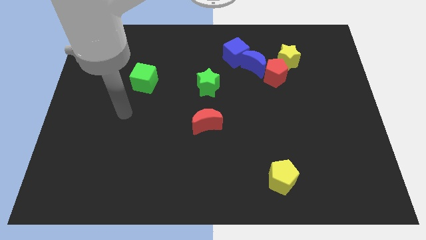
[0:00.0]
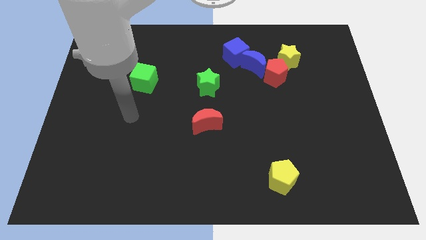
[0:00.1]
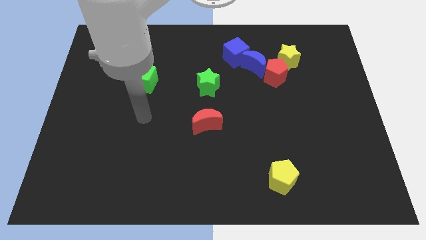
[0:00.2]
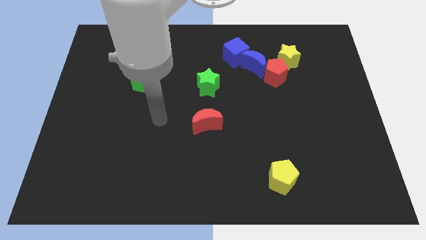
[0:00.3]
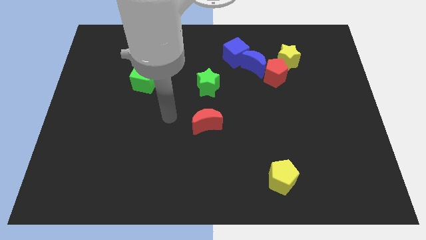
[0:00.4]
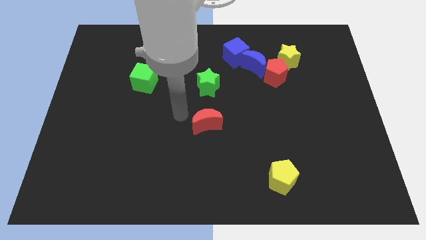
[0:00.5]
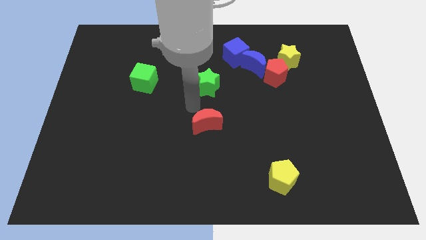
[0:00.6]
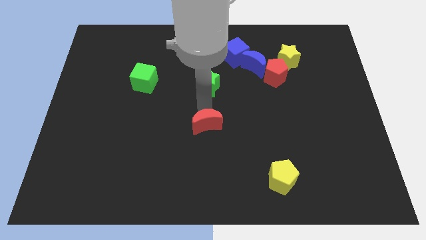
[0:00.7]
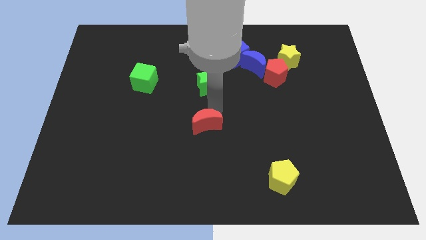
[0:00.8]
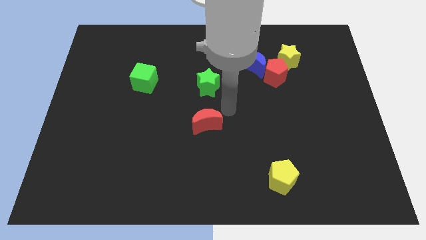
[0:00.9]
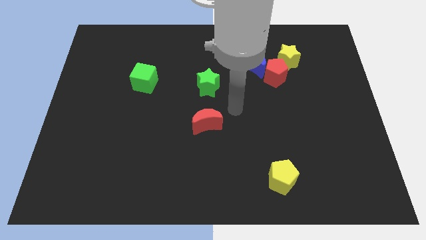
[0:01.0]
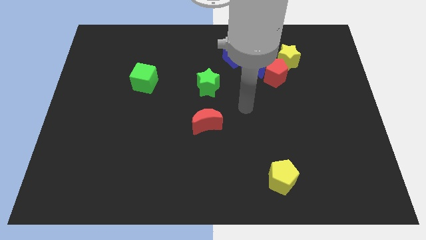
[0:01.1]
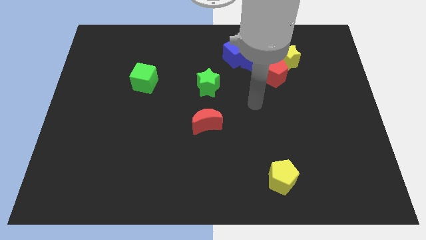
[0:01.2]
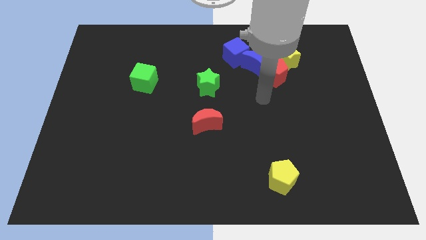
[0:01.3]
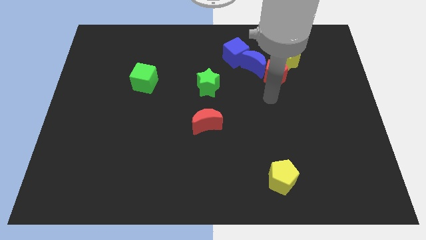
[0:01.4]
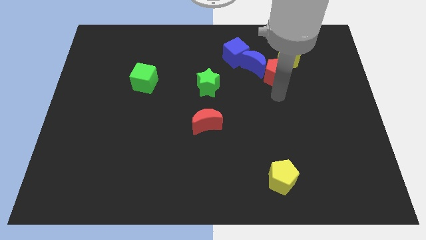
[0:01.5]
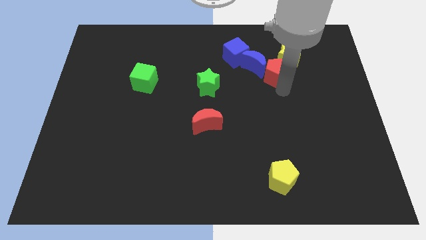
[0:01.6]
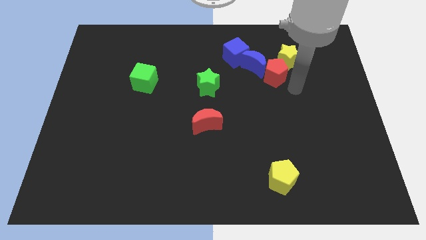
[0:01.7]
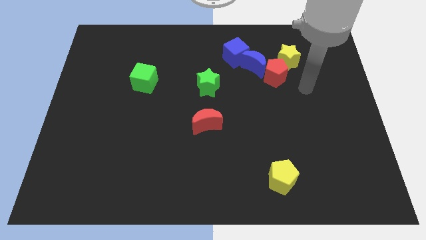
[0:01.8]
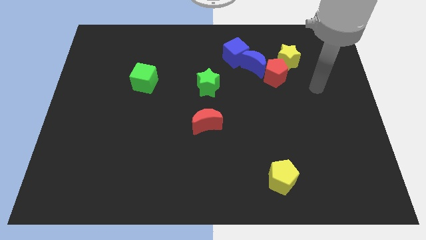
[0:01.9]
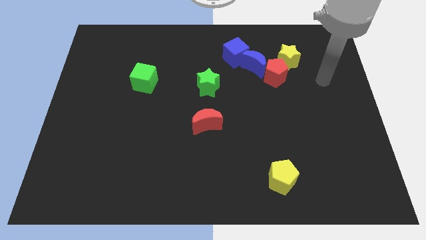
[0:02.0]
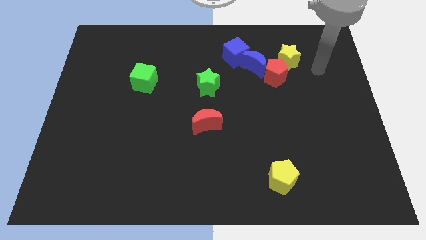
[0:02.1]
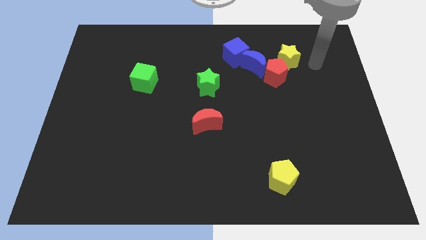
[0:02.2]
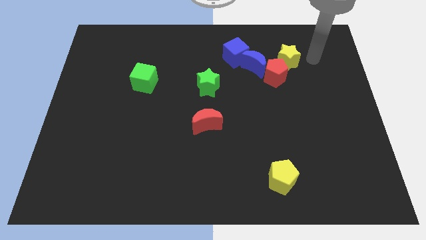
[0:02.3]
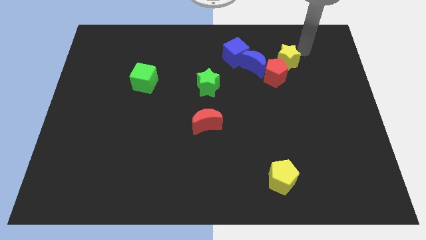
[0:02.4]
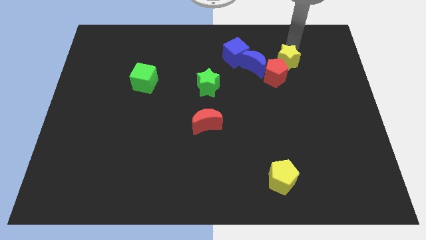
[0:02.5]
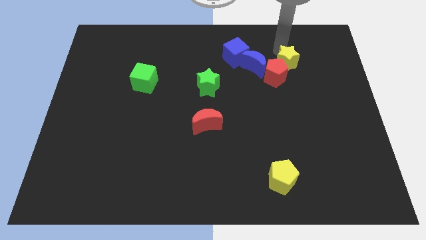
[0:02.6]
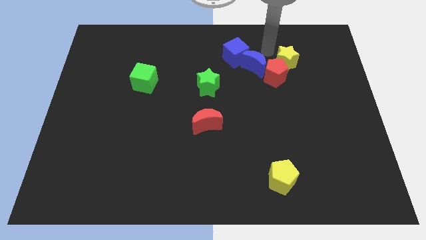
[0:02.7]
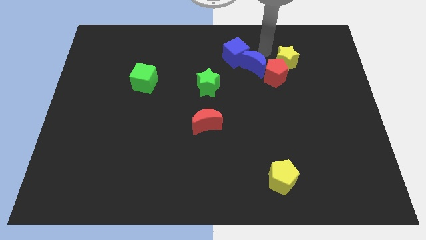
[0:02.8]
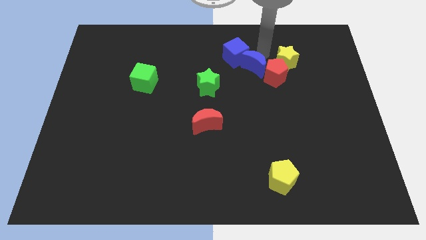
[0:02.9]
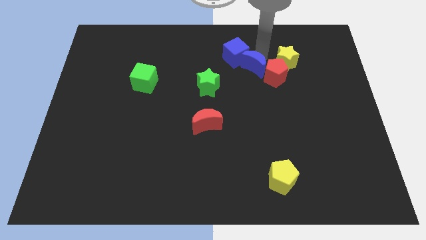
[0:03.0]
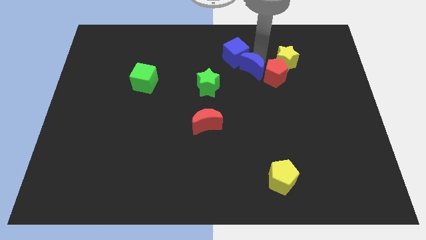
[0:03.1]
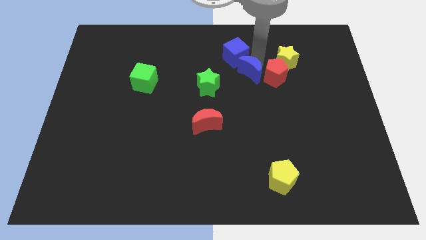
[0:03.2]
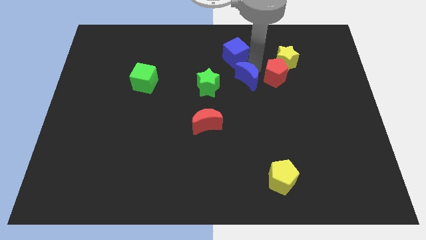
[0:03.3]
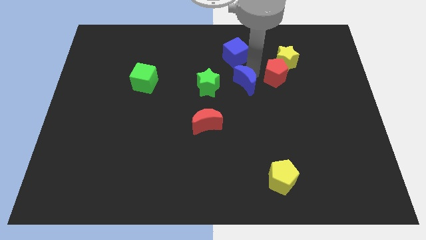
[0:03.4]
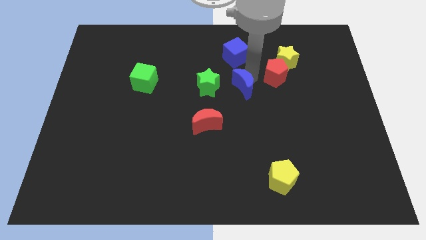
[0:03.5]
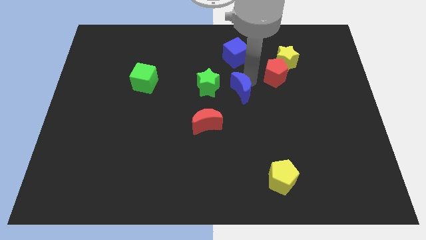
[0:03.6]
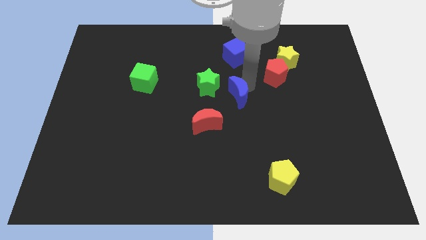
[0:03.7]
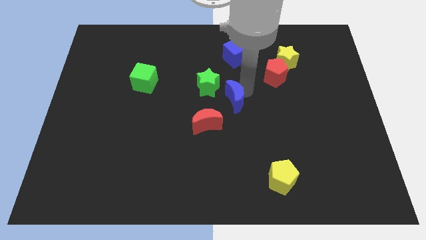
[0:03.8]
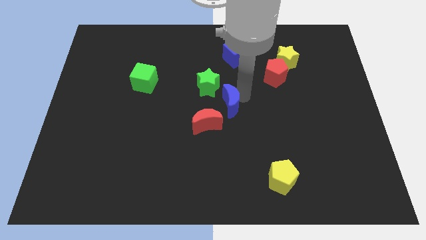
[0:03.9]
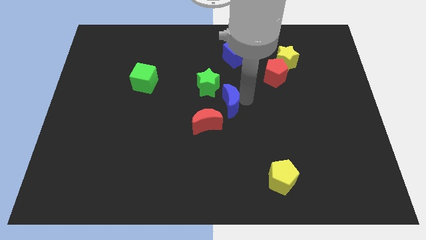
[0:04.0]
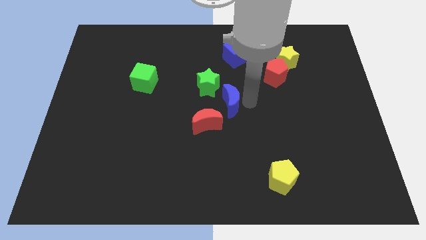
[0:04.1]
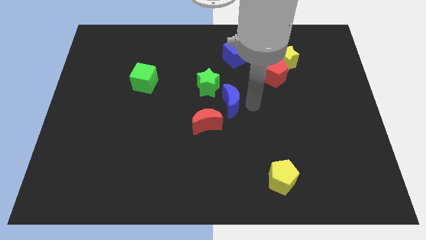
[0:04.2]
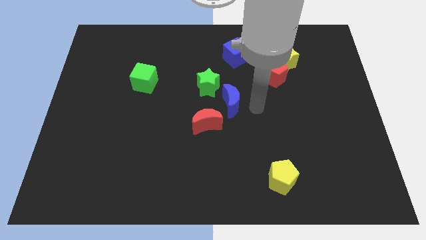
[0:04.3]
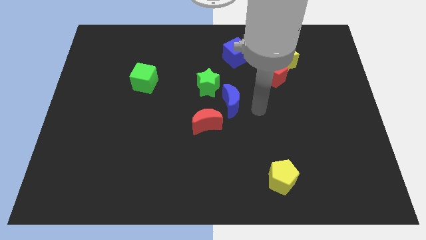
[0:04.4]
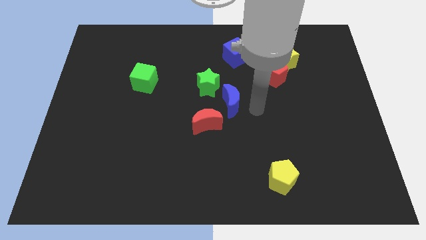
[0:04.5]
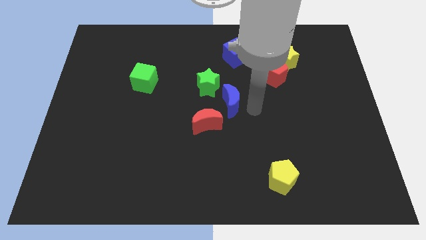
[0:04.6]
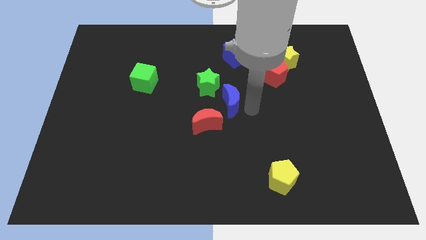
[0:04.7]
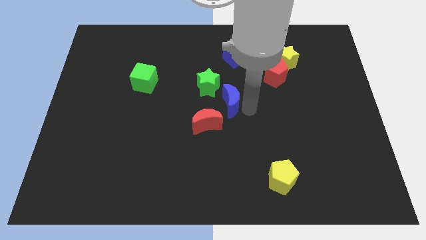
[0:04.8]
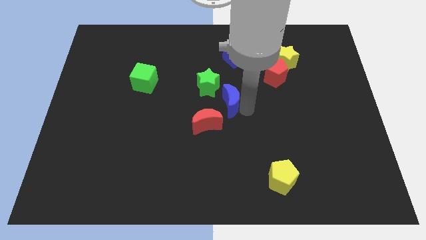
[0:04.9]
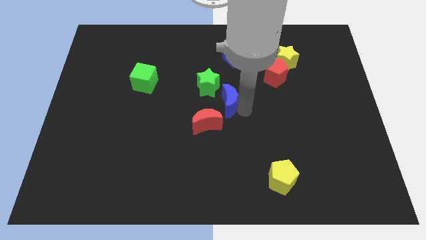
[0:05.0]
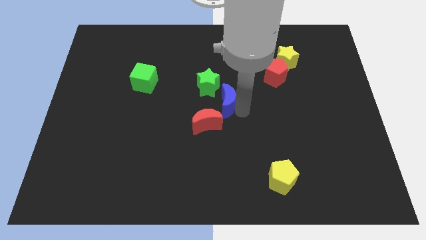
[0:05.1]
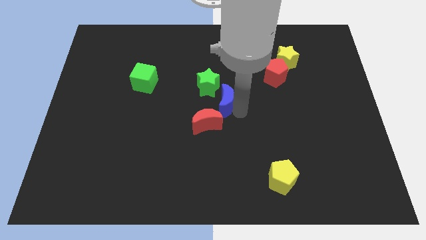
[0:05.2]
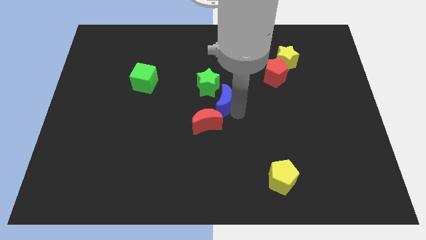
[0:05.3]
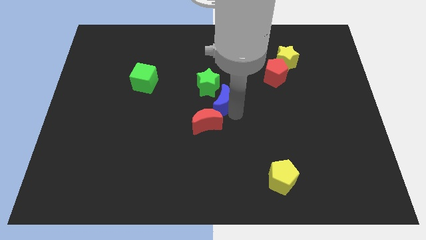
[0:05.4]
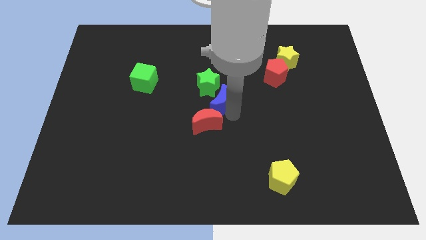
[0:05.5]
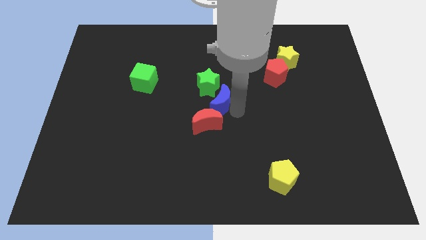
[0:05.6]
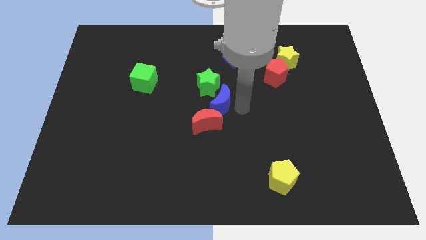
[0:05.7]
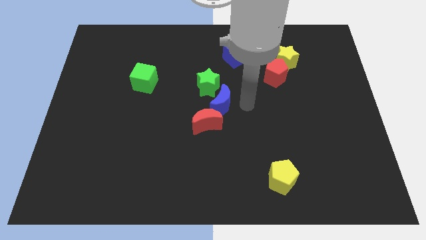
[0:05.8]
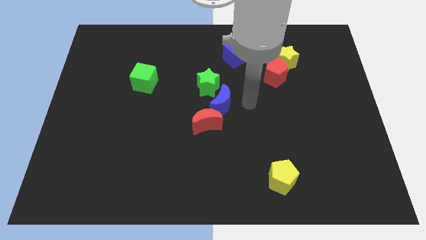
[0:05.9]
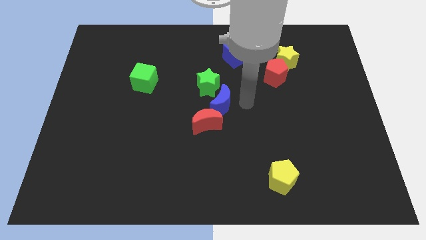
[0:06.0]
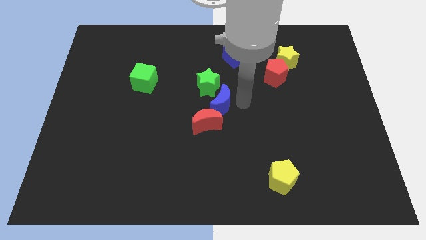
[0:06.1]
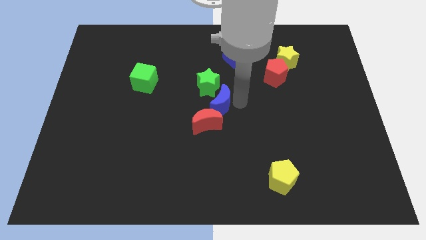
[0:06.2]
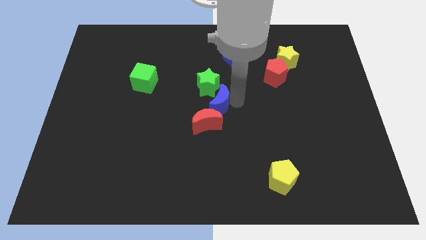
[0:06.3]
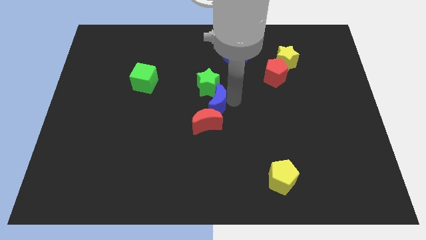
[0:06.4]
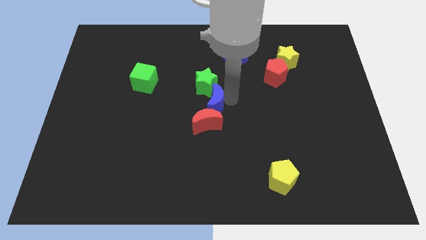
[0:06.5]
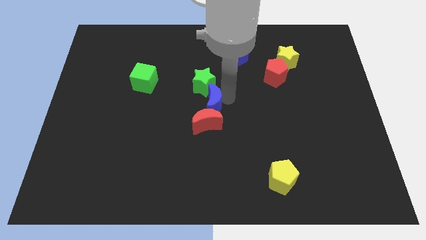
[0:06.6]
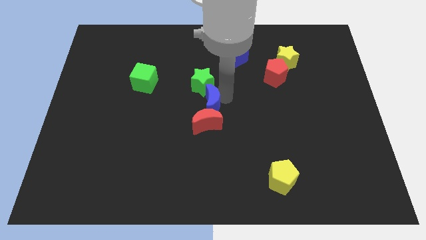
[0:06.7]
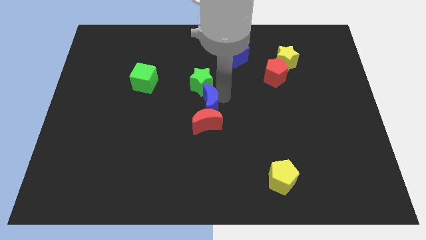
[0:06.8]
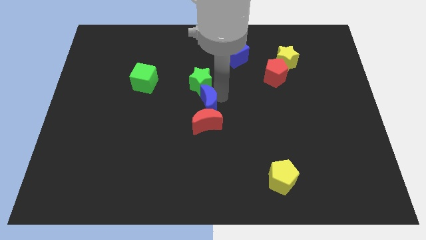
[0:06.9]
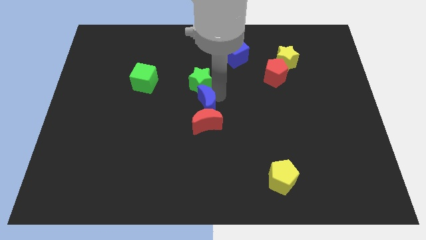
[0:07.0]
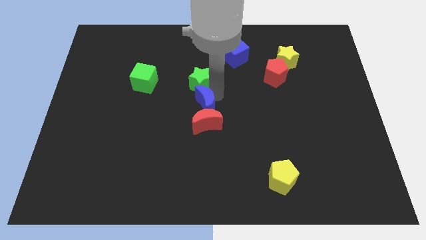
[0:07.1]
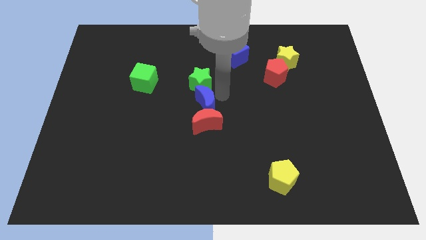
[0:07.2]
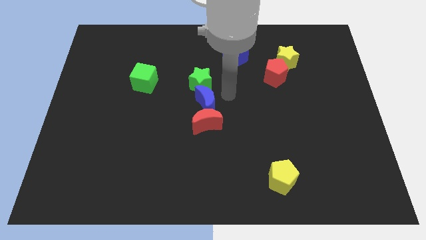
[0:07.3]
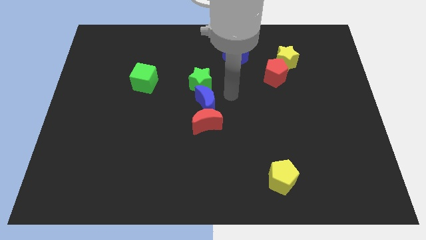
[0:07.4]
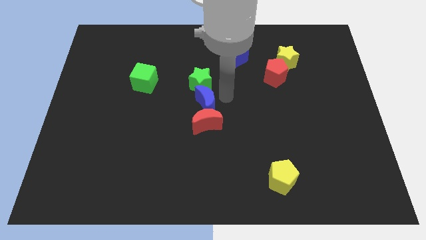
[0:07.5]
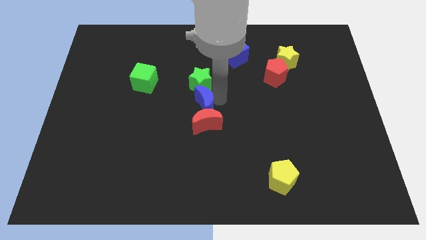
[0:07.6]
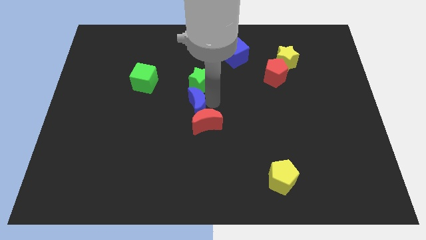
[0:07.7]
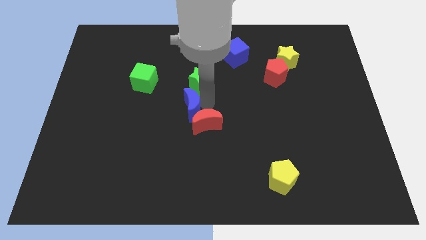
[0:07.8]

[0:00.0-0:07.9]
slide the blue moon downwards and left

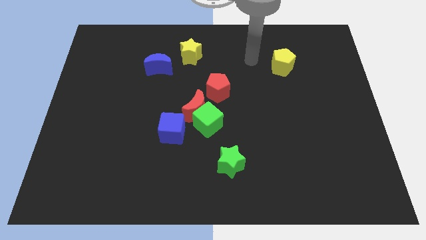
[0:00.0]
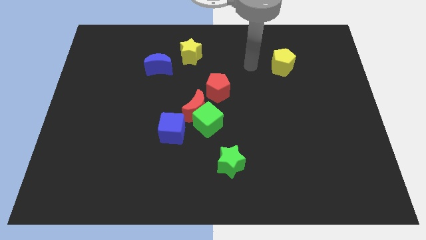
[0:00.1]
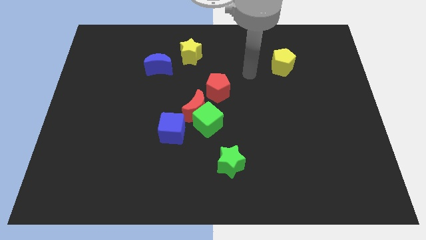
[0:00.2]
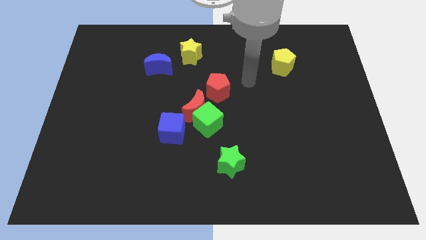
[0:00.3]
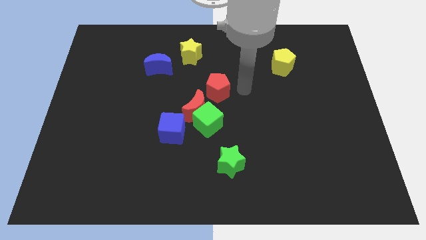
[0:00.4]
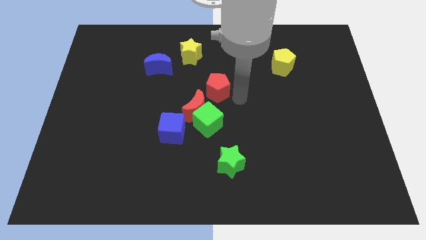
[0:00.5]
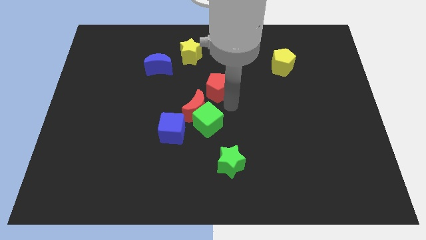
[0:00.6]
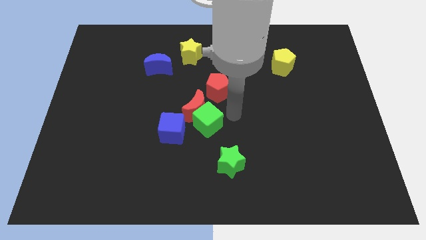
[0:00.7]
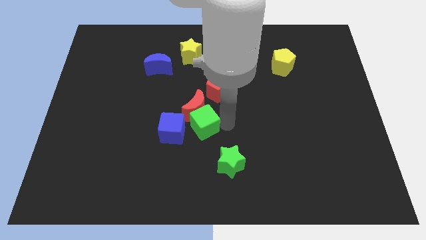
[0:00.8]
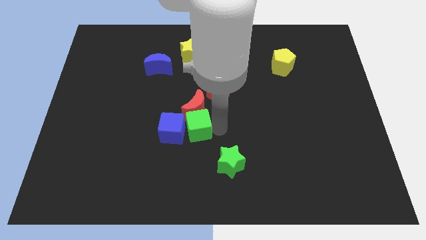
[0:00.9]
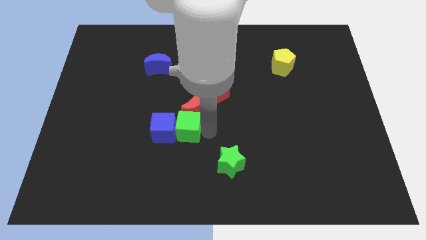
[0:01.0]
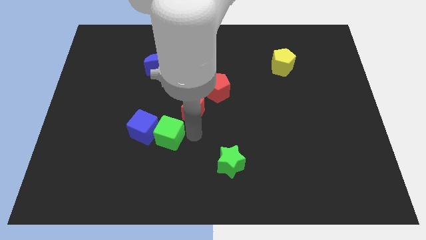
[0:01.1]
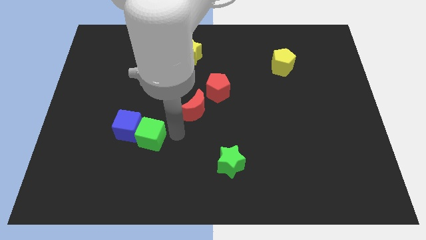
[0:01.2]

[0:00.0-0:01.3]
slide the blue cube to the left somewhat
